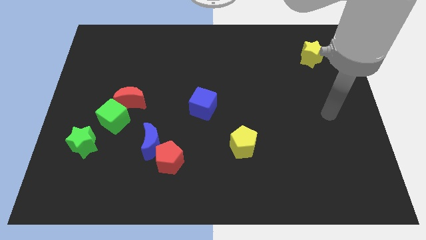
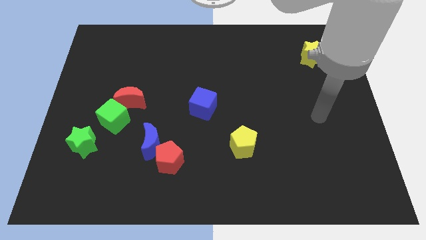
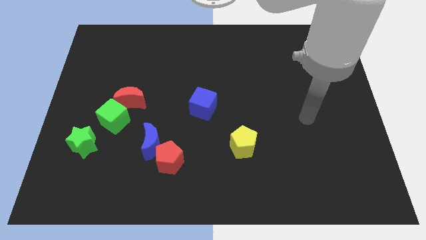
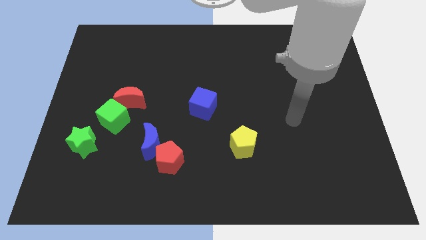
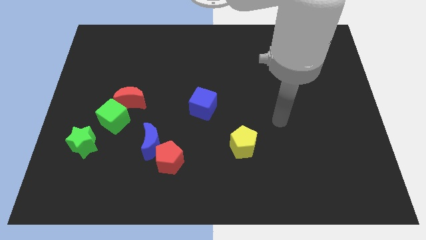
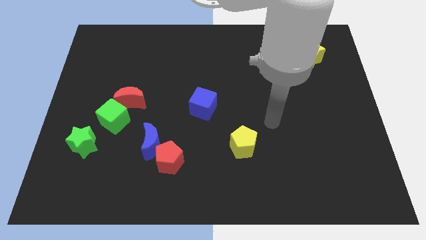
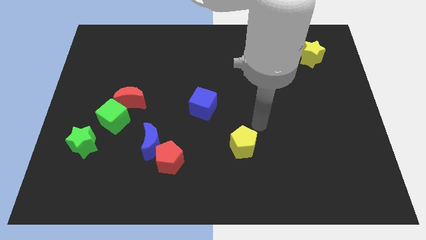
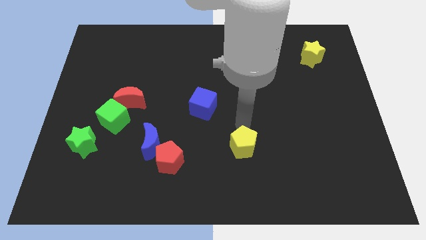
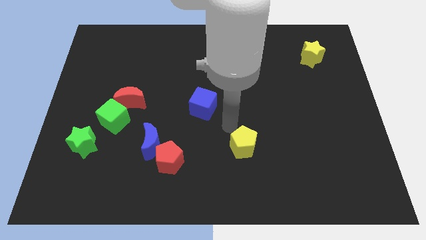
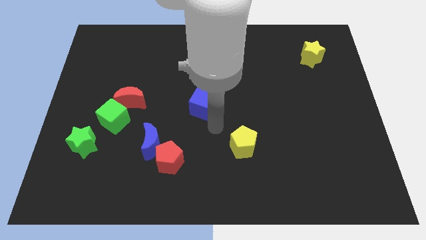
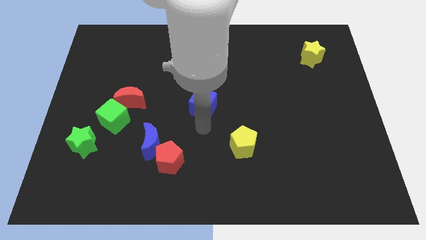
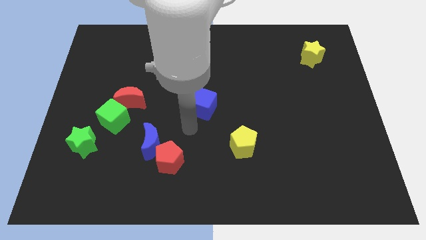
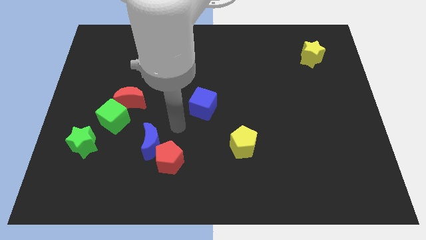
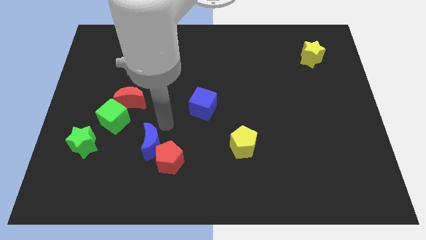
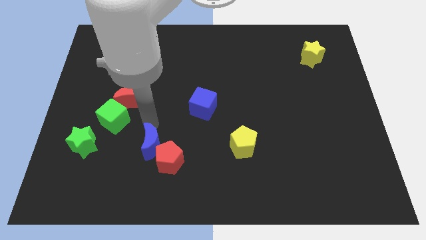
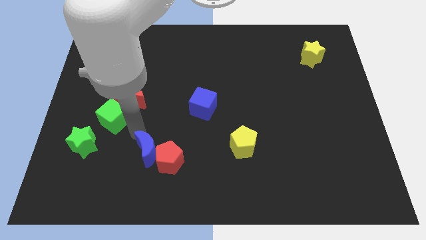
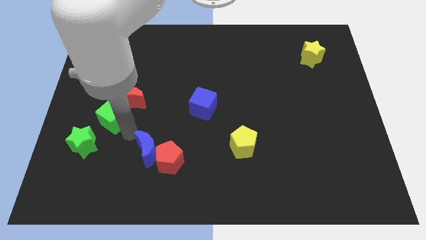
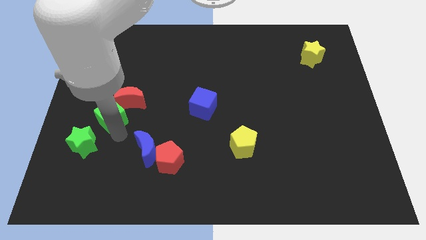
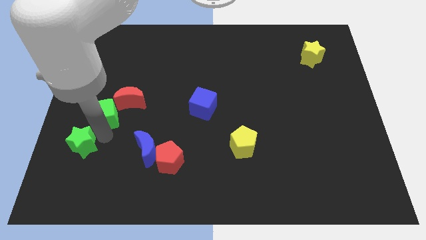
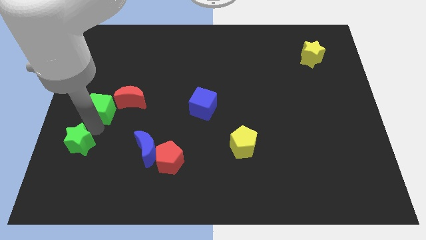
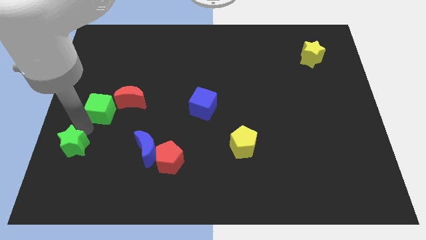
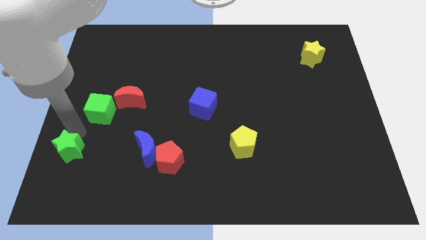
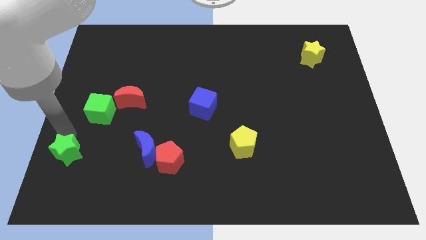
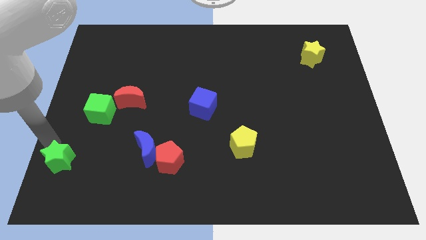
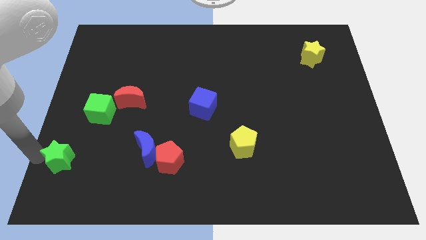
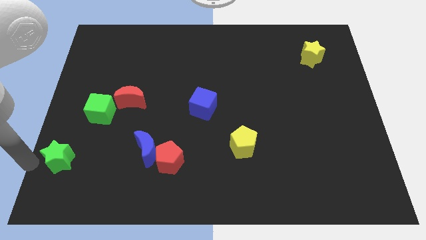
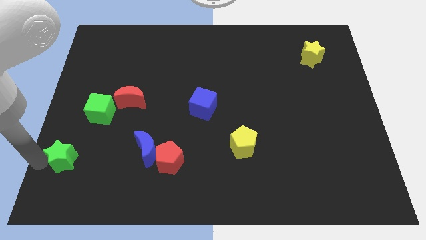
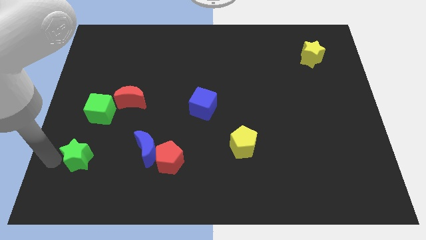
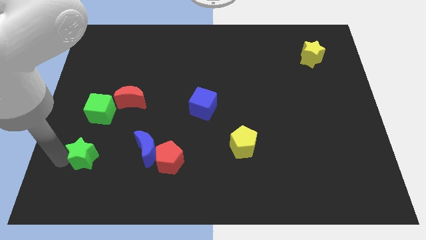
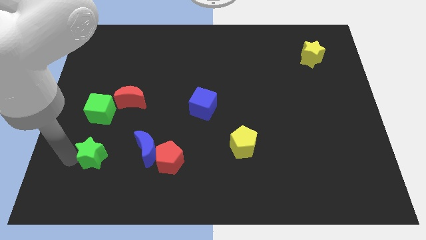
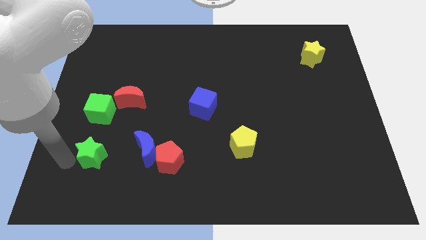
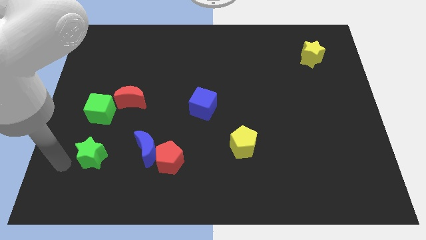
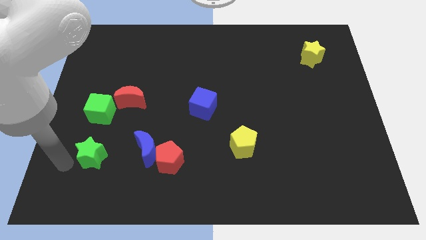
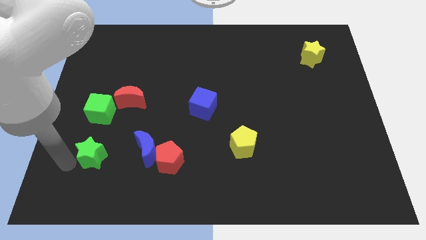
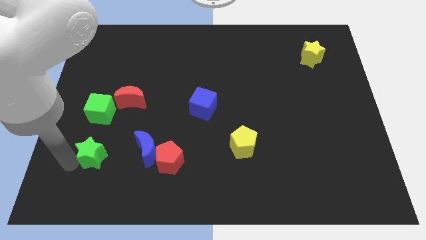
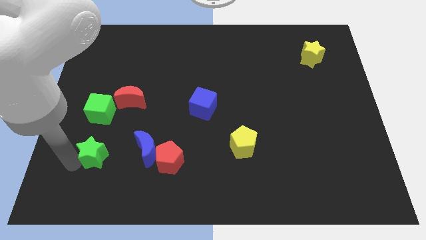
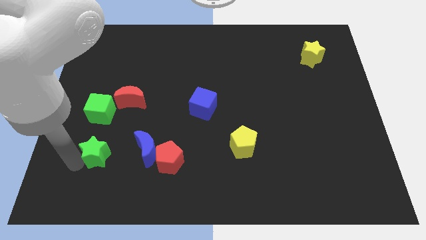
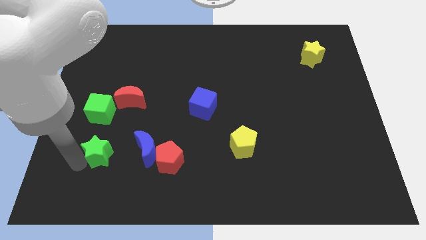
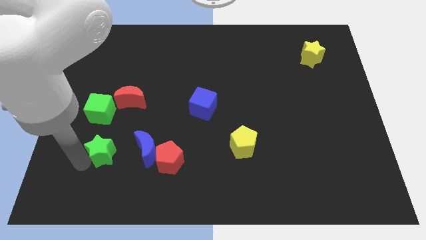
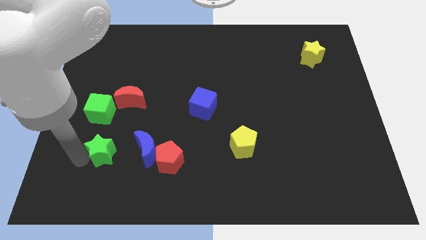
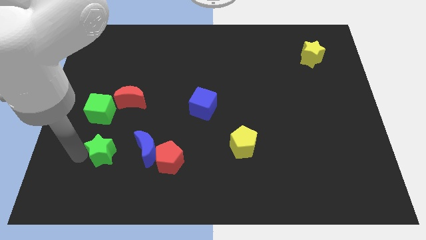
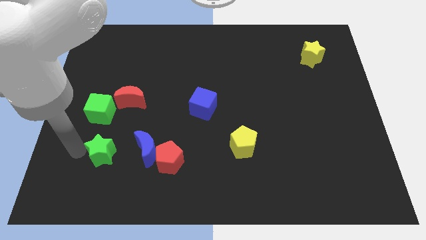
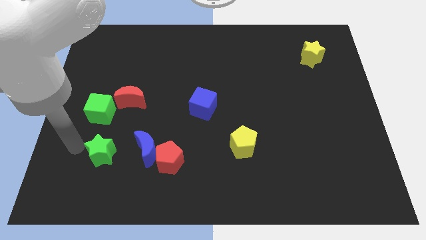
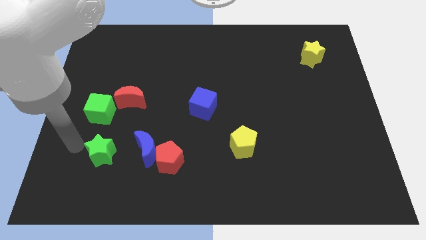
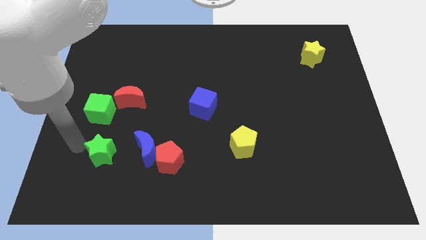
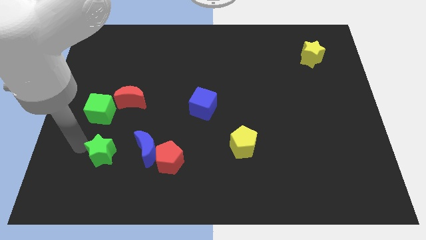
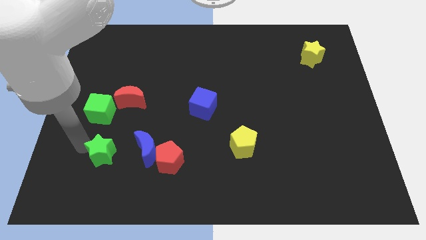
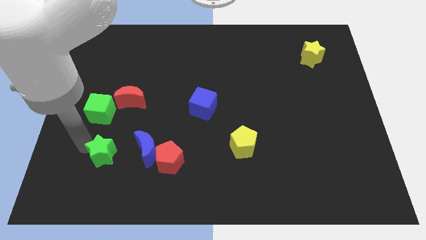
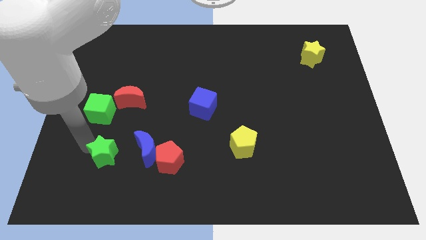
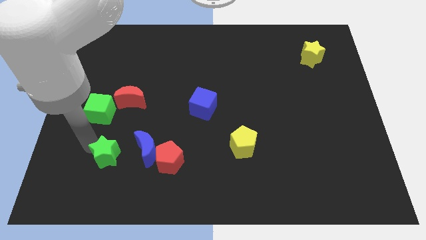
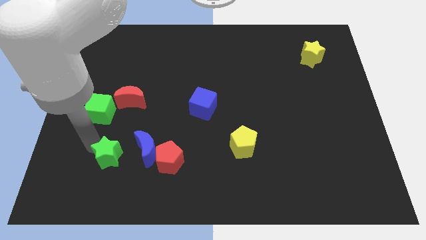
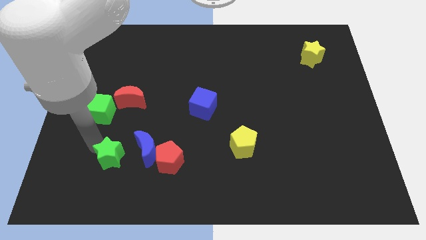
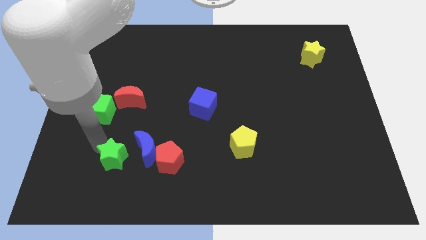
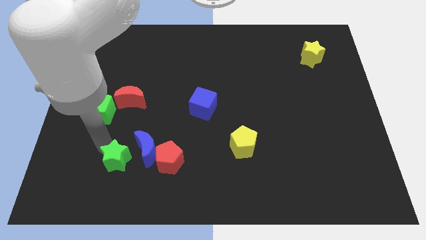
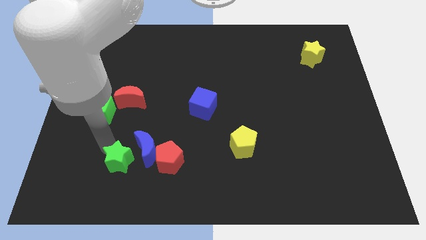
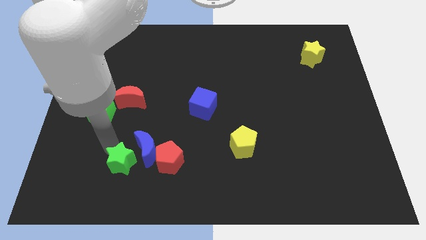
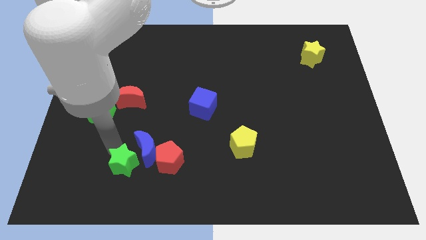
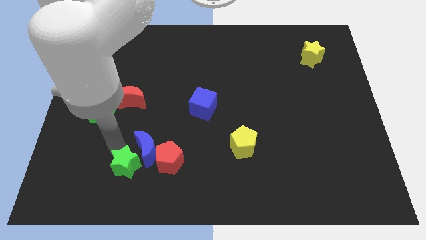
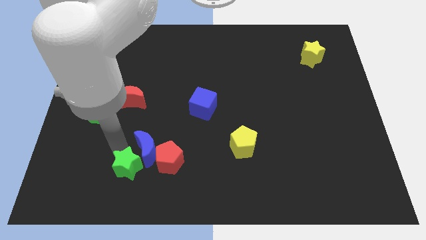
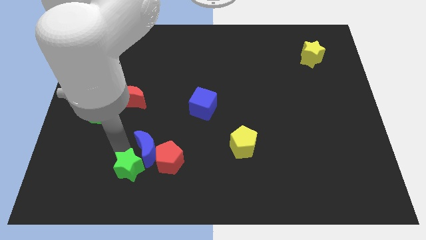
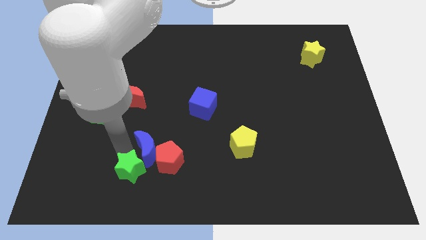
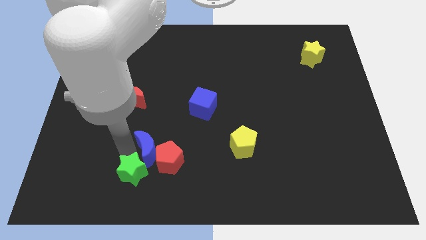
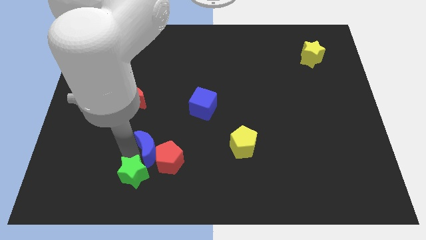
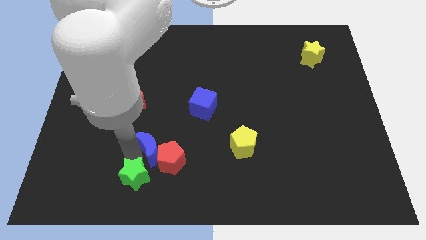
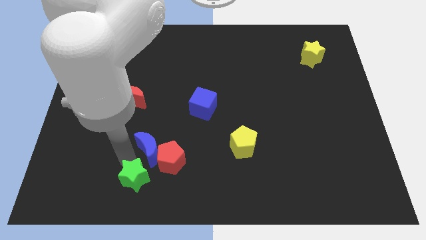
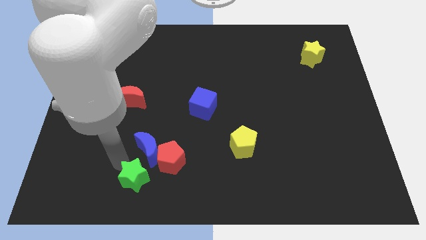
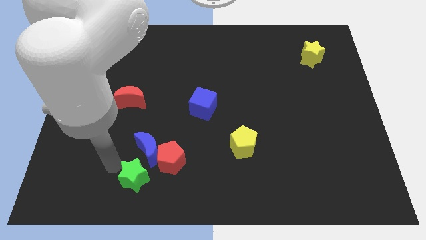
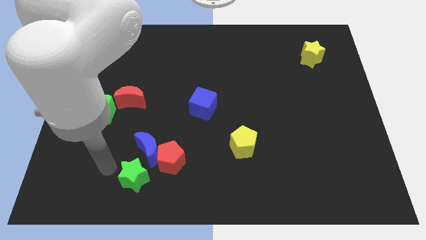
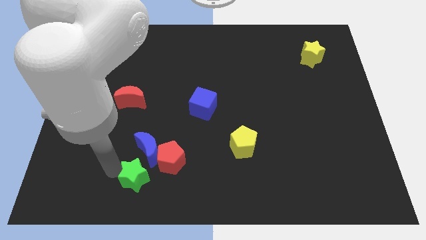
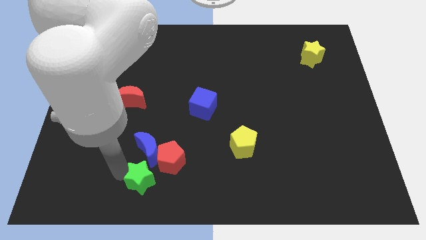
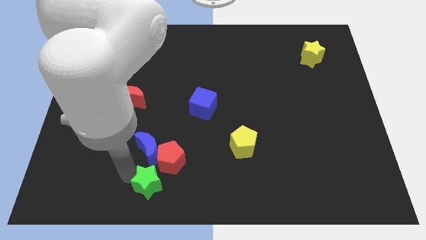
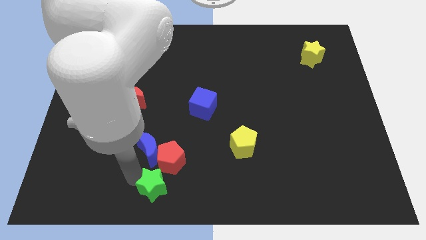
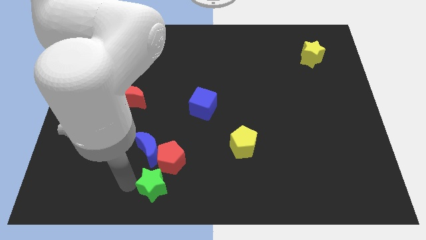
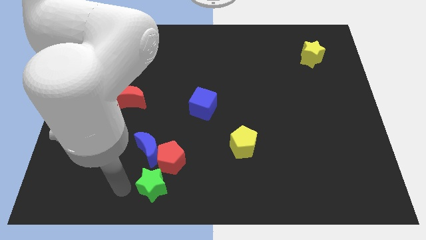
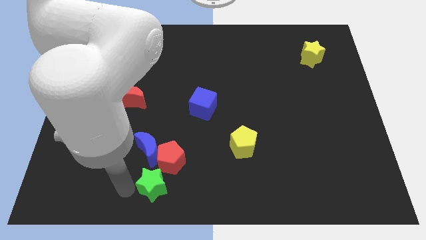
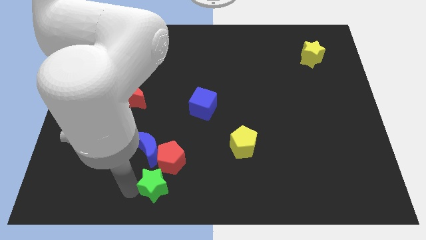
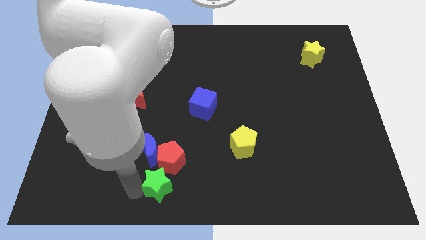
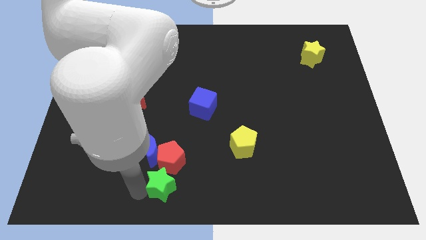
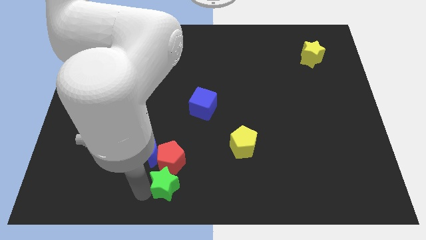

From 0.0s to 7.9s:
push the green star to the bottom right side of the red pentagon
